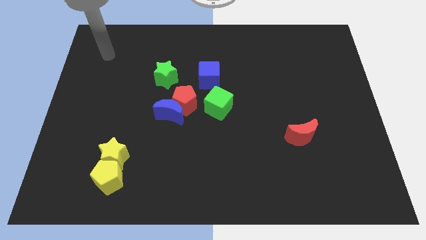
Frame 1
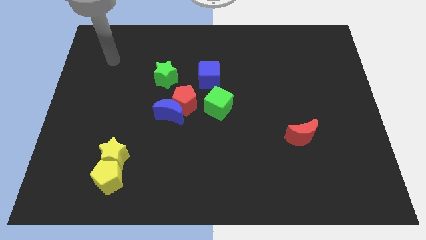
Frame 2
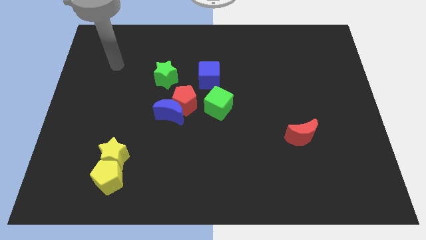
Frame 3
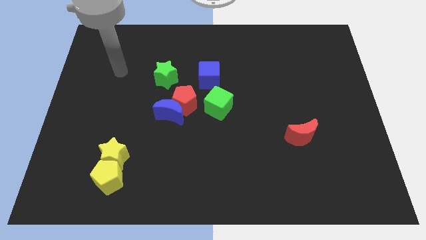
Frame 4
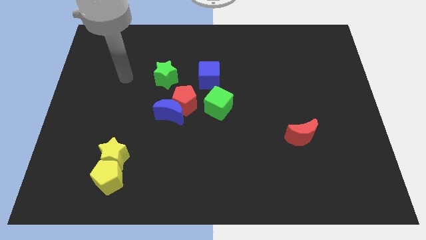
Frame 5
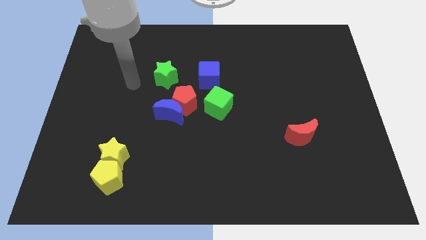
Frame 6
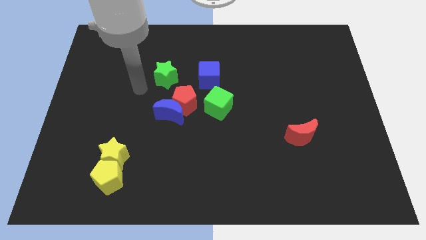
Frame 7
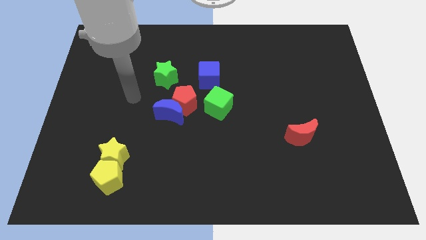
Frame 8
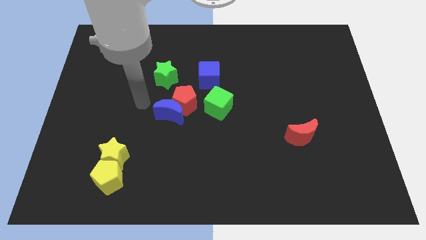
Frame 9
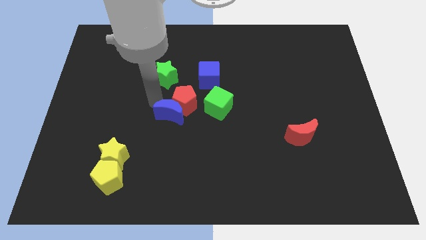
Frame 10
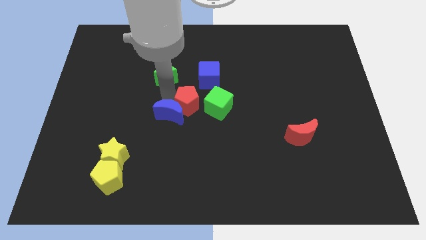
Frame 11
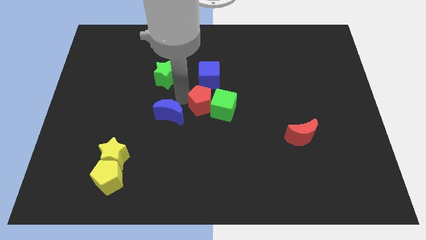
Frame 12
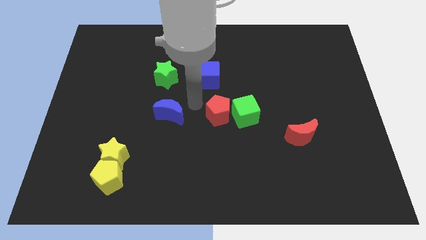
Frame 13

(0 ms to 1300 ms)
move the blue moon away from the red pentagon

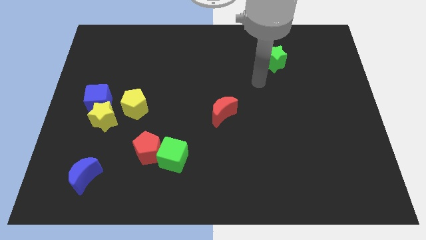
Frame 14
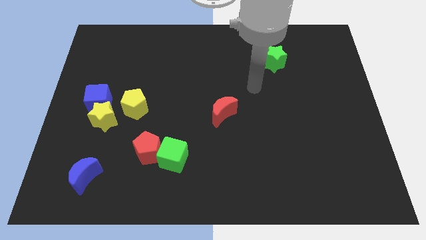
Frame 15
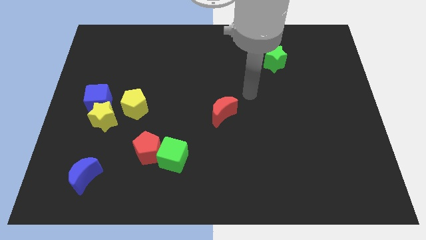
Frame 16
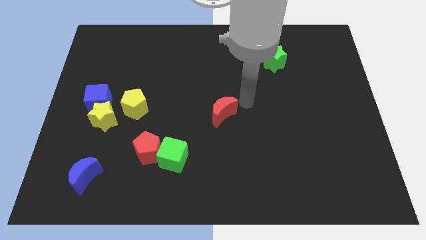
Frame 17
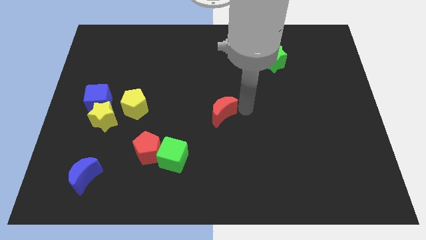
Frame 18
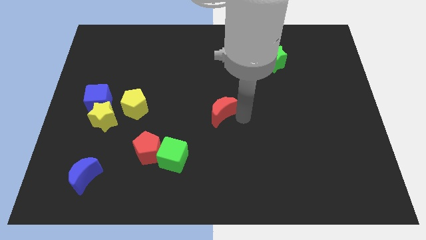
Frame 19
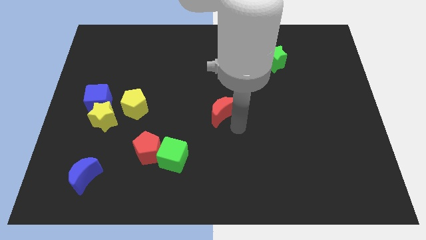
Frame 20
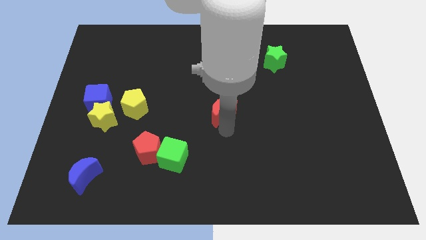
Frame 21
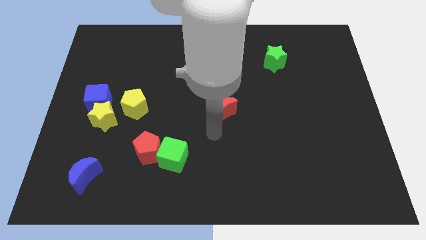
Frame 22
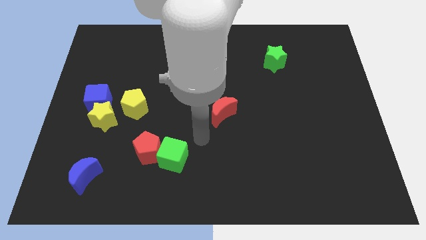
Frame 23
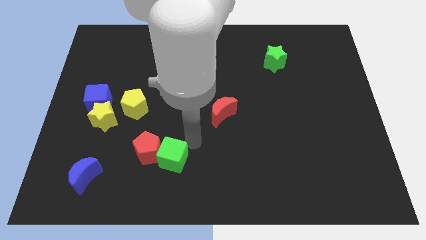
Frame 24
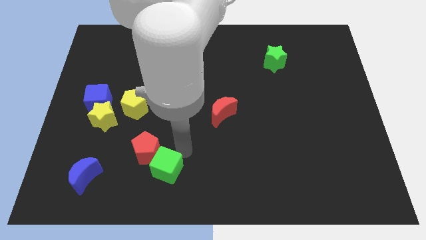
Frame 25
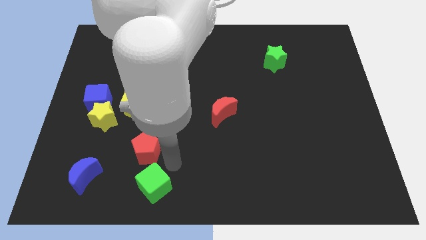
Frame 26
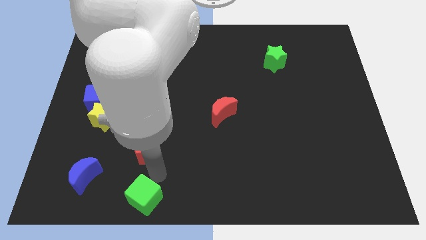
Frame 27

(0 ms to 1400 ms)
separate the red pentagon from the green cube

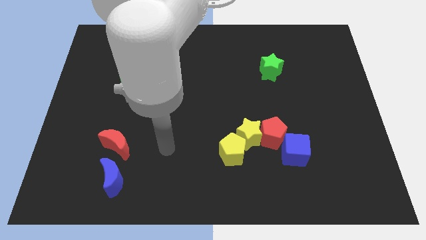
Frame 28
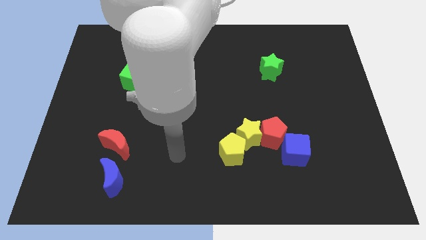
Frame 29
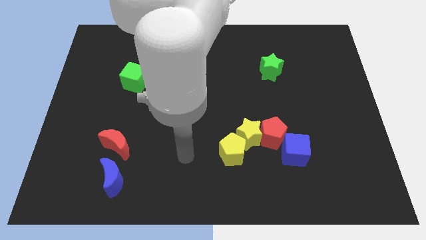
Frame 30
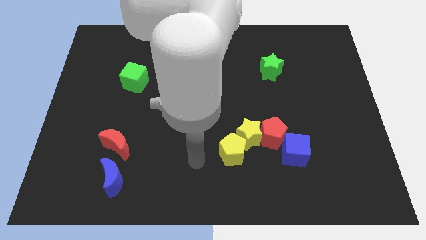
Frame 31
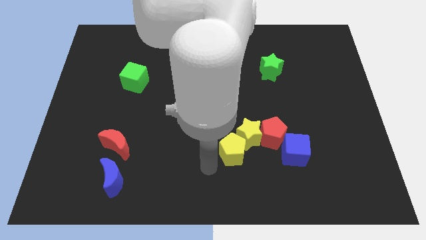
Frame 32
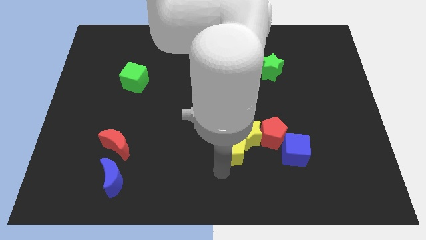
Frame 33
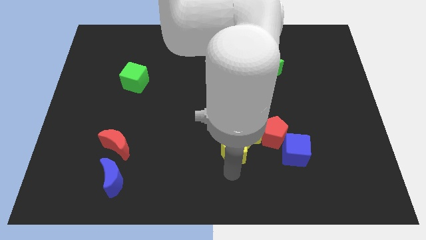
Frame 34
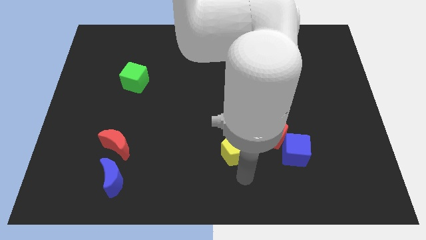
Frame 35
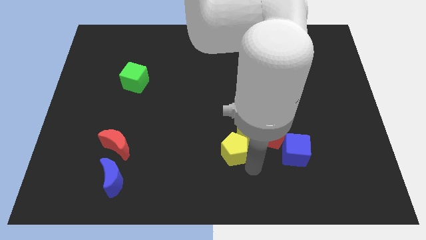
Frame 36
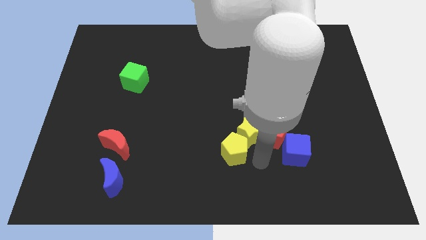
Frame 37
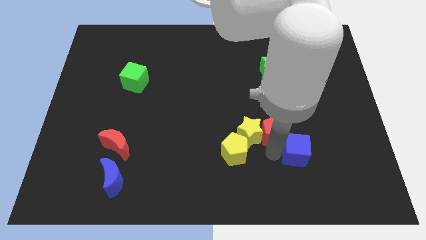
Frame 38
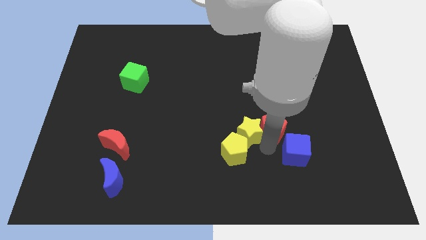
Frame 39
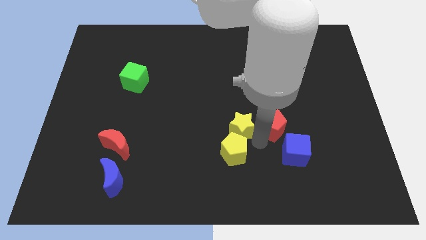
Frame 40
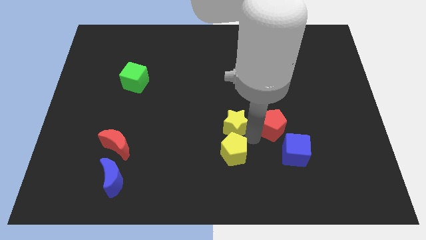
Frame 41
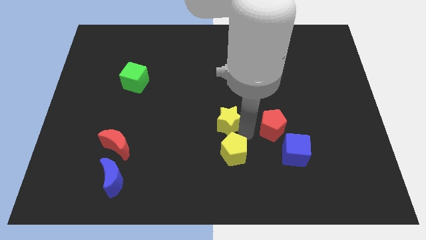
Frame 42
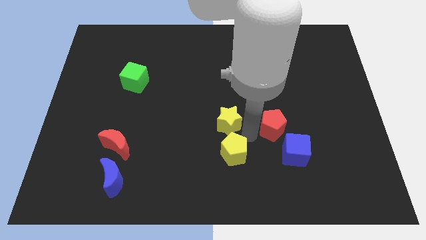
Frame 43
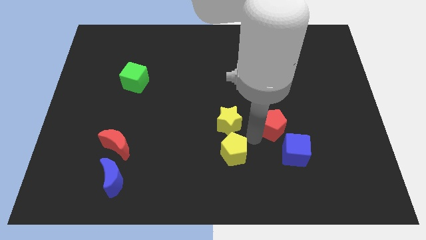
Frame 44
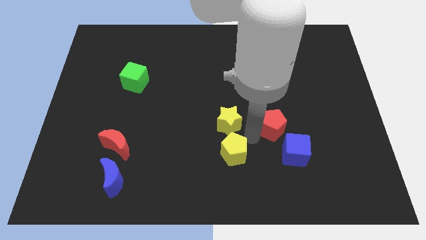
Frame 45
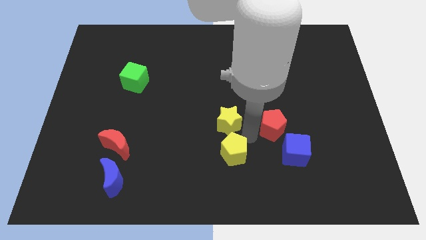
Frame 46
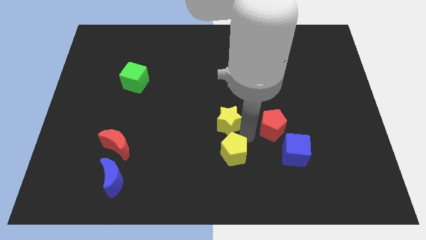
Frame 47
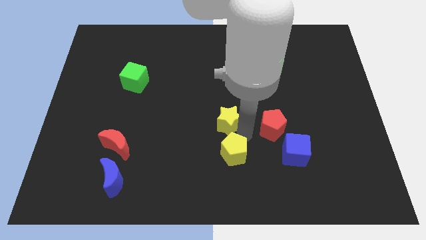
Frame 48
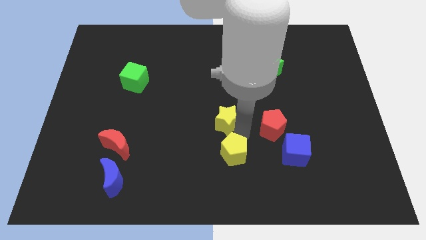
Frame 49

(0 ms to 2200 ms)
pull the yellow star apart from the red pentagon, yellow pentagon, and blue cube

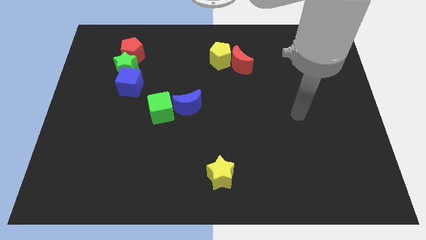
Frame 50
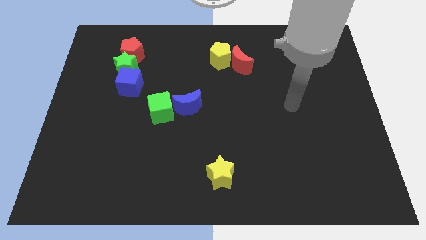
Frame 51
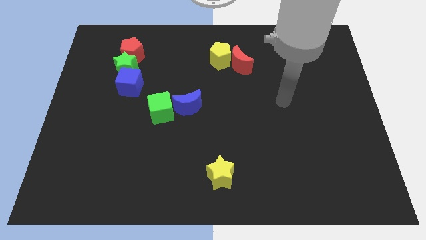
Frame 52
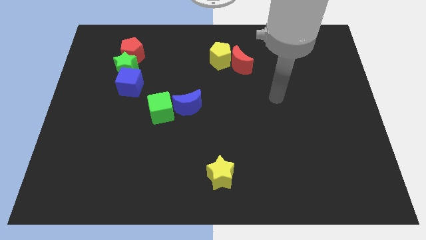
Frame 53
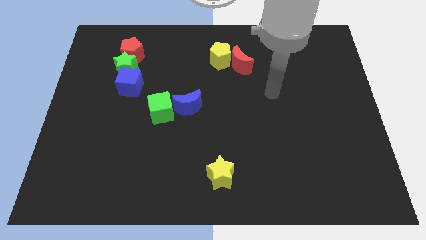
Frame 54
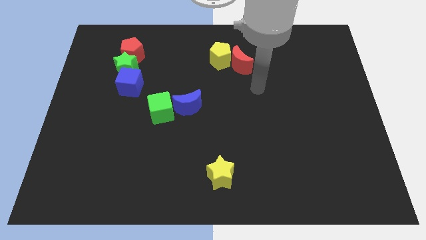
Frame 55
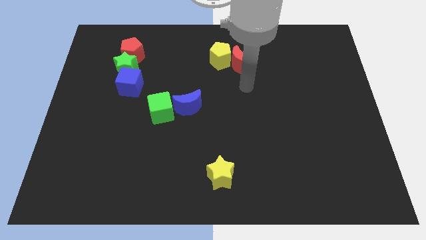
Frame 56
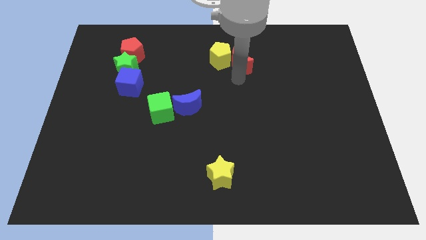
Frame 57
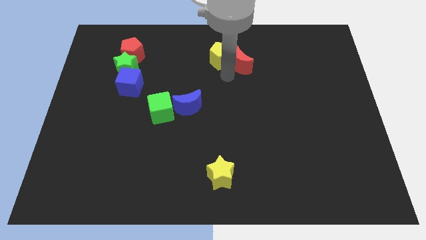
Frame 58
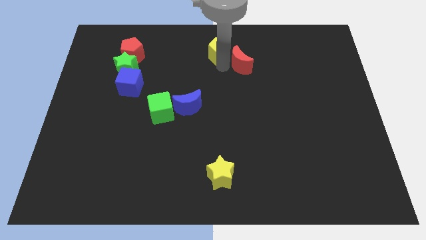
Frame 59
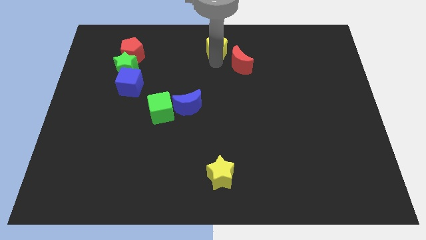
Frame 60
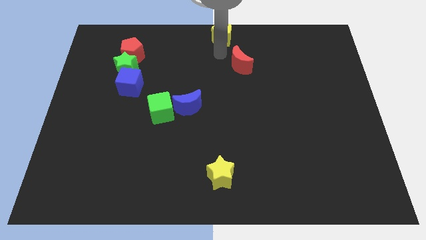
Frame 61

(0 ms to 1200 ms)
pull the red moon apart from the yellow pentagon

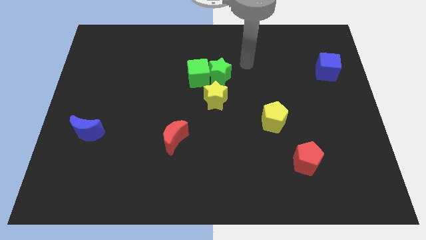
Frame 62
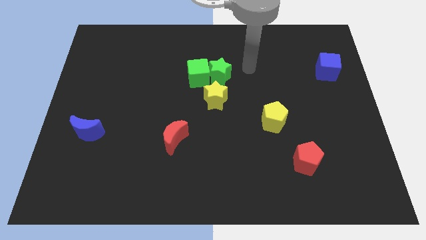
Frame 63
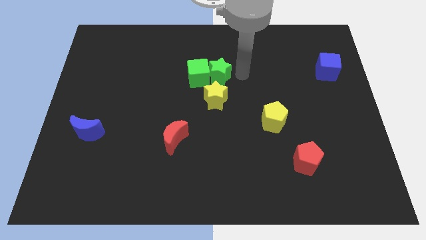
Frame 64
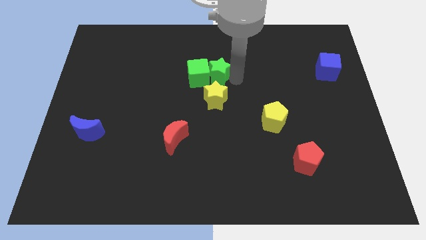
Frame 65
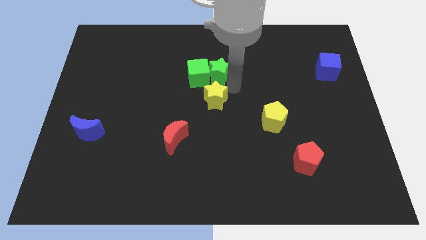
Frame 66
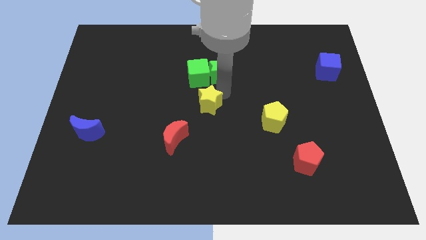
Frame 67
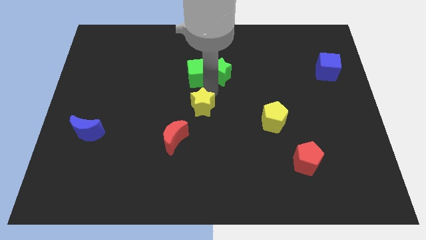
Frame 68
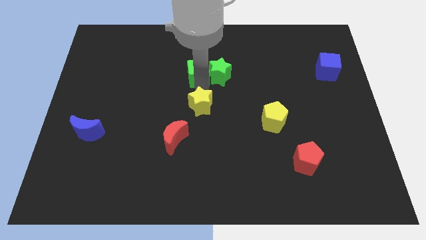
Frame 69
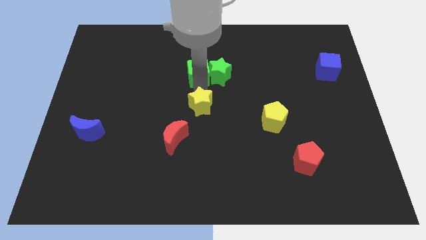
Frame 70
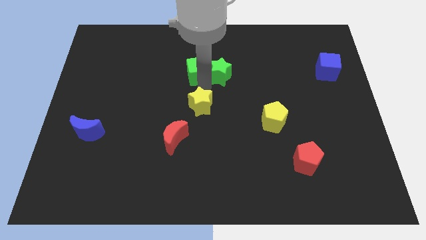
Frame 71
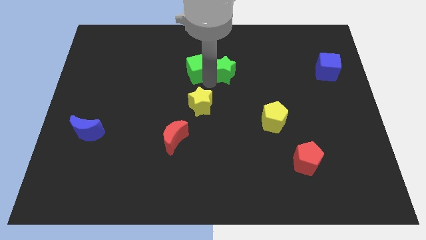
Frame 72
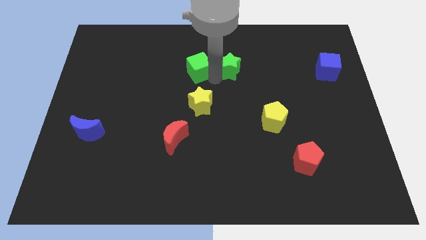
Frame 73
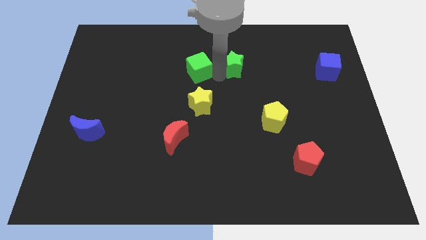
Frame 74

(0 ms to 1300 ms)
move the green star away from the green cube and yellow star

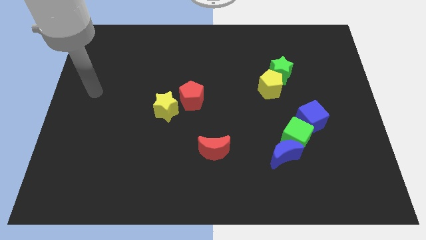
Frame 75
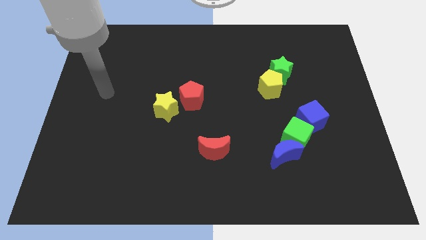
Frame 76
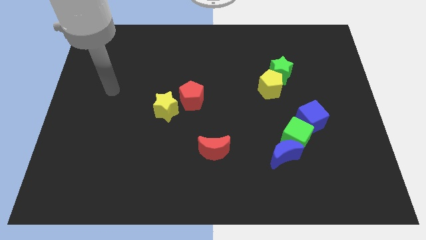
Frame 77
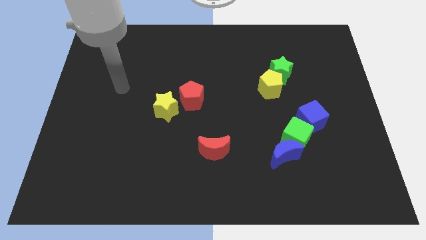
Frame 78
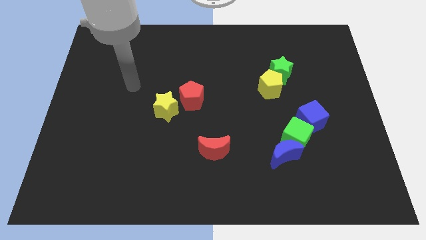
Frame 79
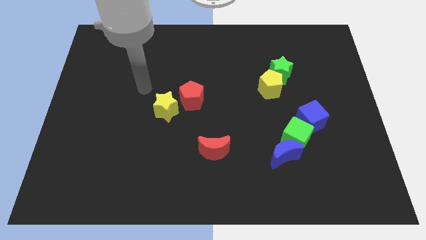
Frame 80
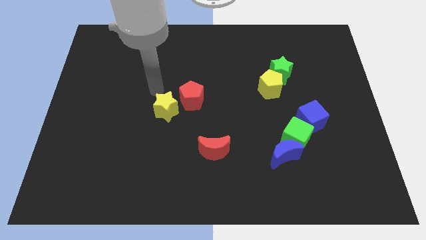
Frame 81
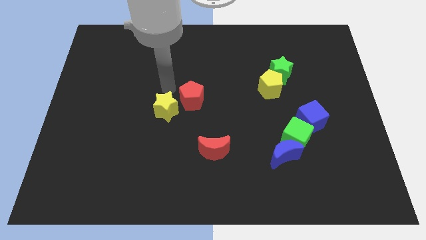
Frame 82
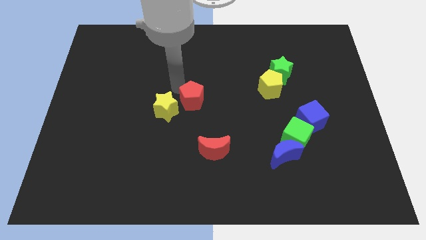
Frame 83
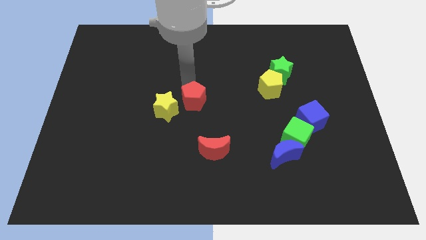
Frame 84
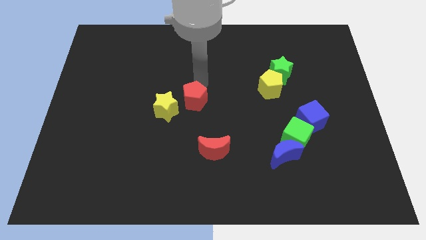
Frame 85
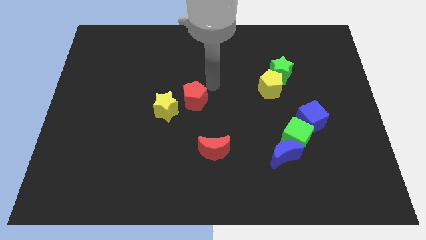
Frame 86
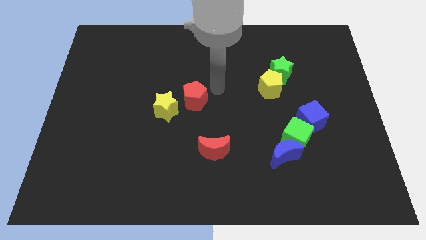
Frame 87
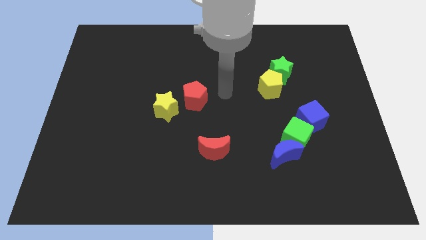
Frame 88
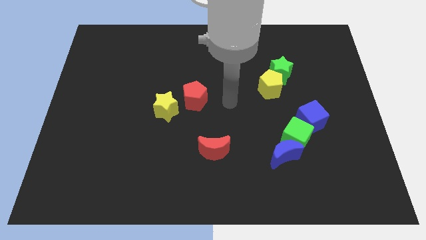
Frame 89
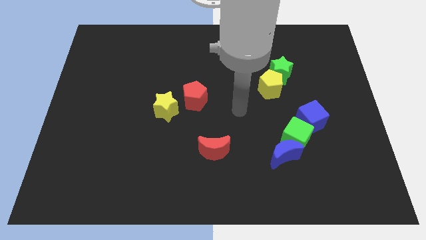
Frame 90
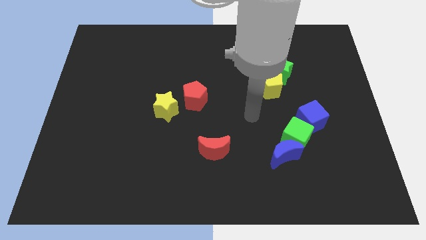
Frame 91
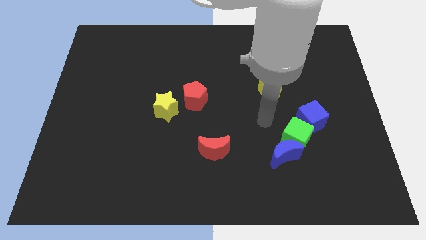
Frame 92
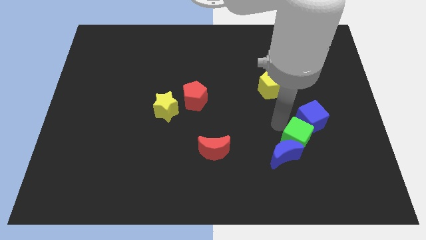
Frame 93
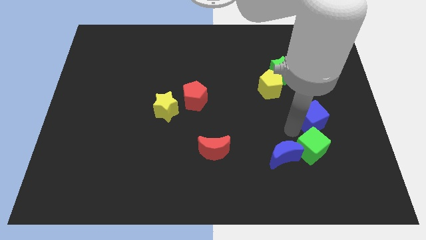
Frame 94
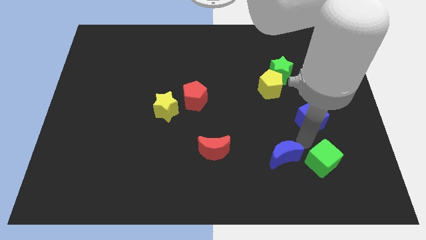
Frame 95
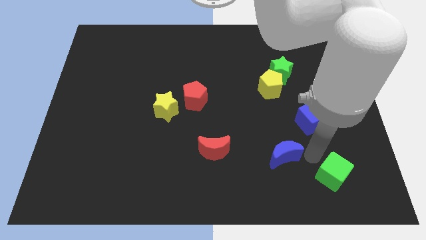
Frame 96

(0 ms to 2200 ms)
separate the blue moon from the green cube
